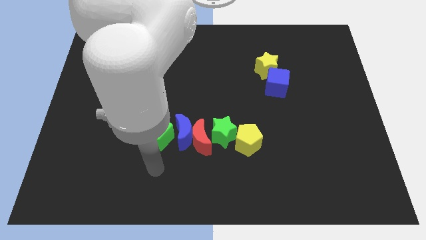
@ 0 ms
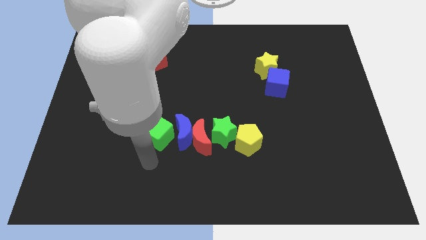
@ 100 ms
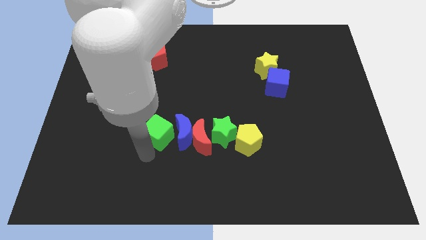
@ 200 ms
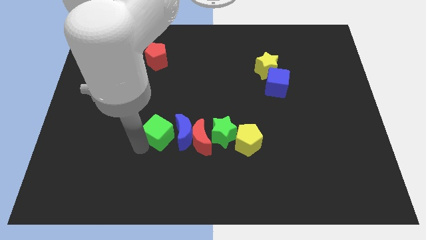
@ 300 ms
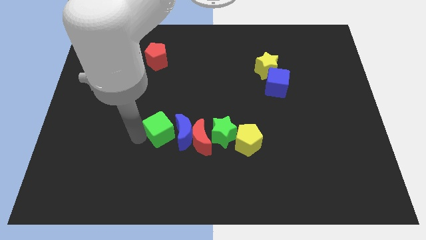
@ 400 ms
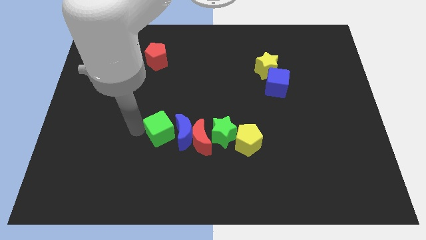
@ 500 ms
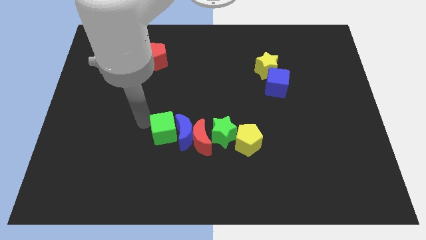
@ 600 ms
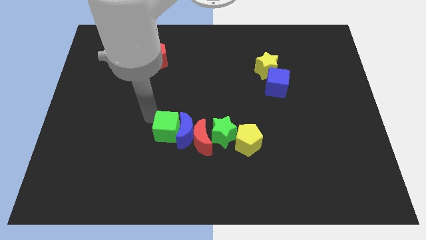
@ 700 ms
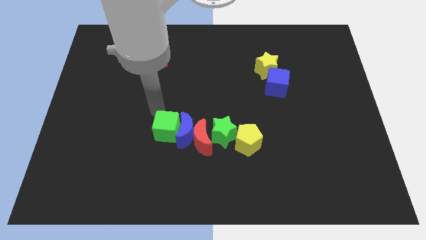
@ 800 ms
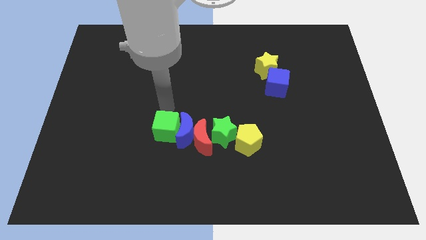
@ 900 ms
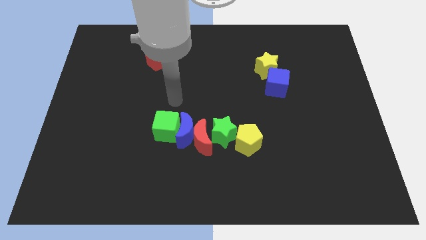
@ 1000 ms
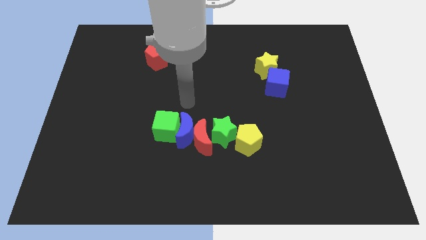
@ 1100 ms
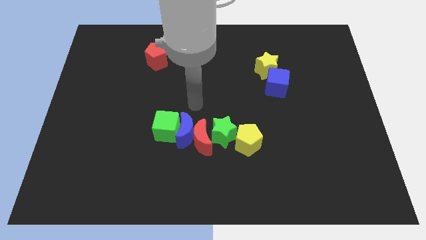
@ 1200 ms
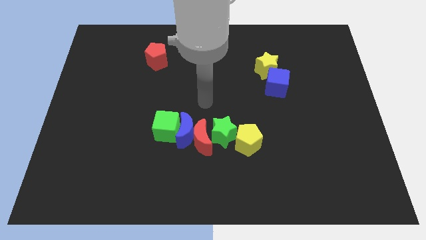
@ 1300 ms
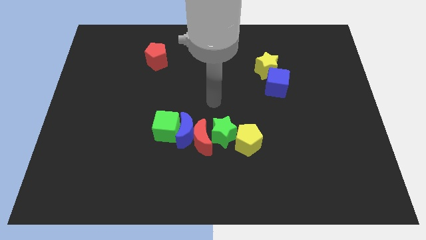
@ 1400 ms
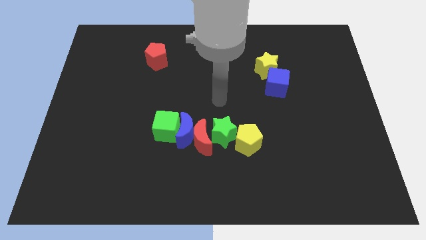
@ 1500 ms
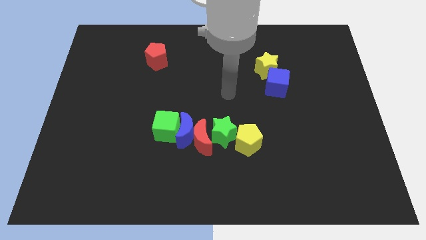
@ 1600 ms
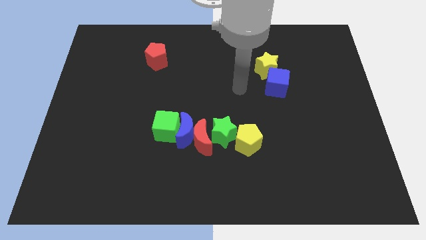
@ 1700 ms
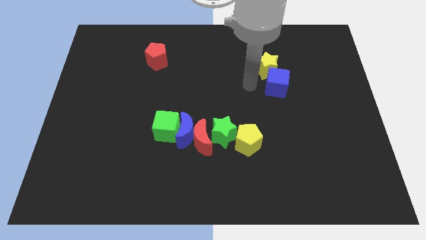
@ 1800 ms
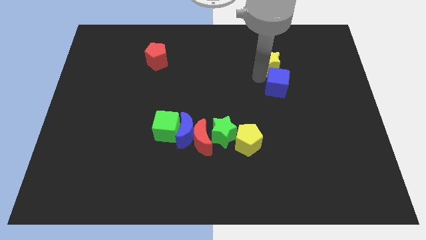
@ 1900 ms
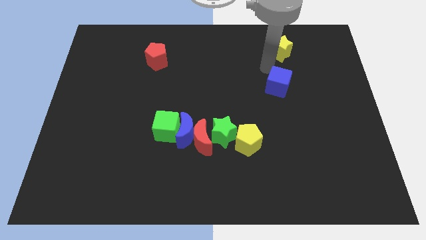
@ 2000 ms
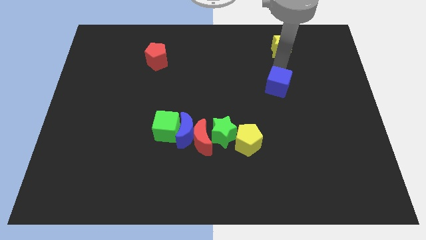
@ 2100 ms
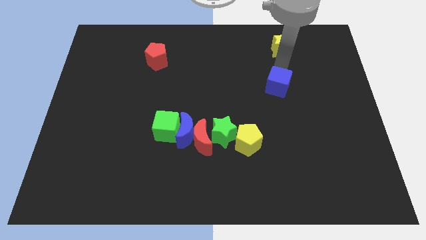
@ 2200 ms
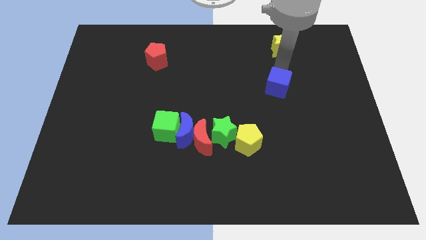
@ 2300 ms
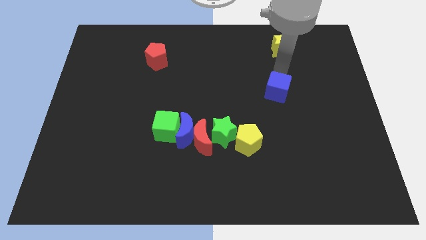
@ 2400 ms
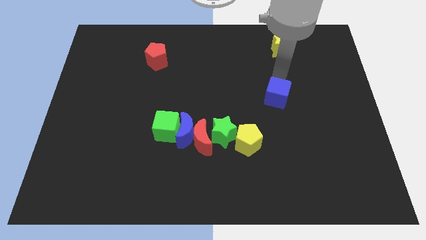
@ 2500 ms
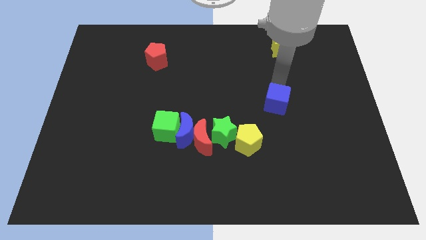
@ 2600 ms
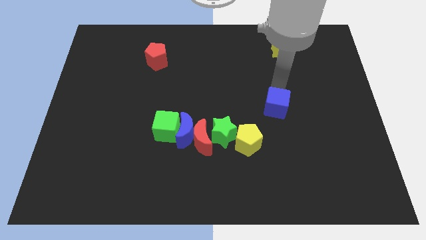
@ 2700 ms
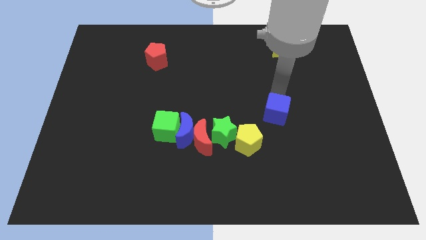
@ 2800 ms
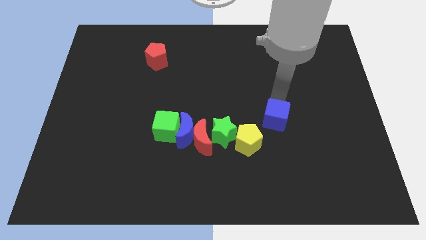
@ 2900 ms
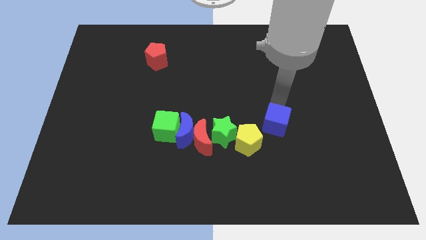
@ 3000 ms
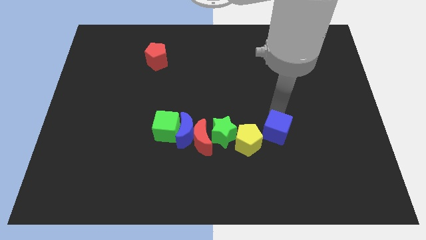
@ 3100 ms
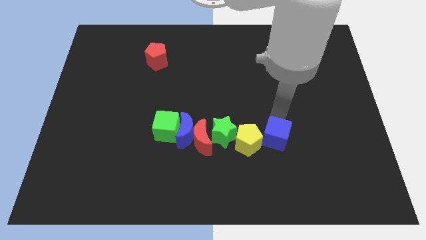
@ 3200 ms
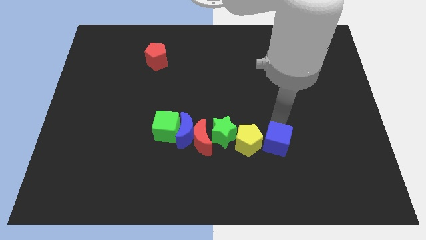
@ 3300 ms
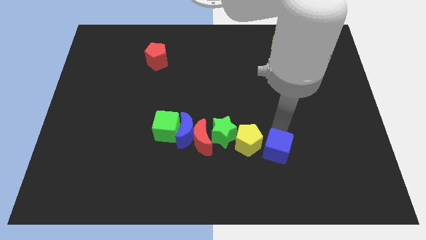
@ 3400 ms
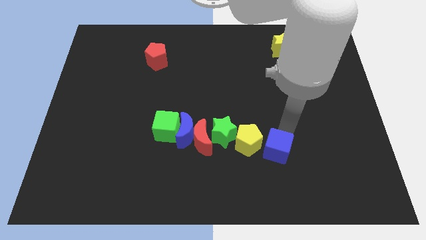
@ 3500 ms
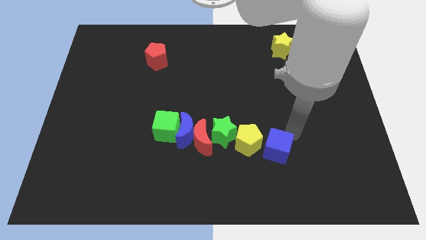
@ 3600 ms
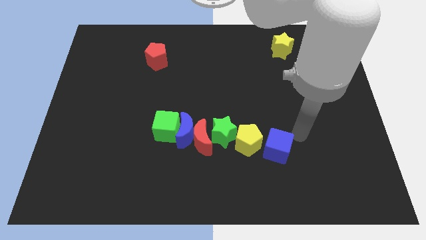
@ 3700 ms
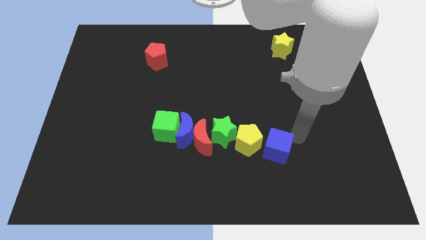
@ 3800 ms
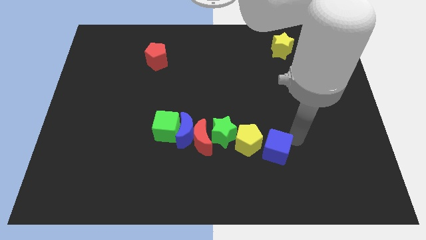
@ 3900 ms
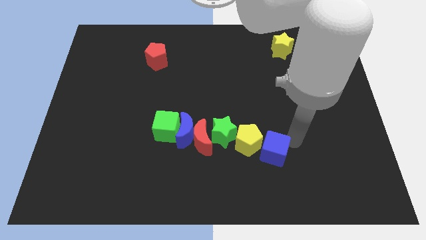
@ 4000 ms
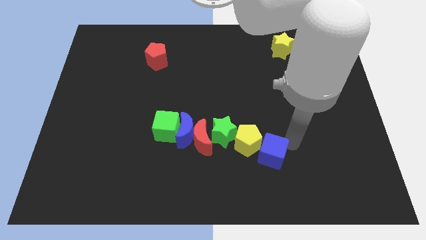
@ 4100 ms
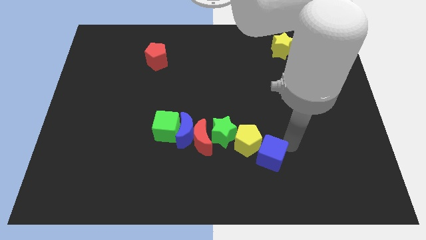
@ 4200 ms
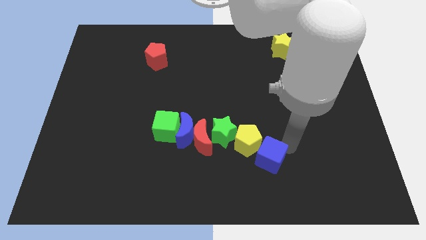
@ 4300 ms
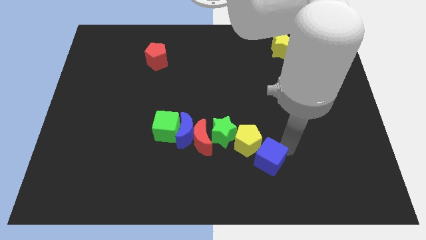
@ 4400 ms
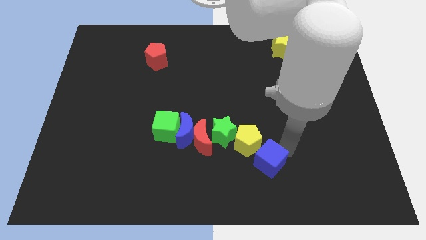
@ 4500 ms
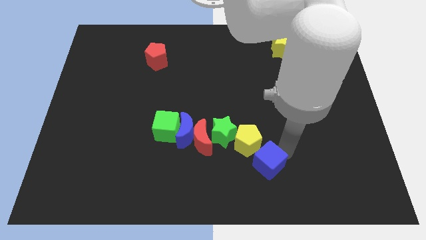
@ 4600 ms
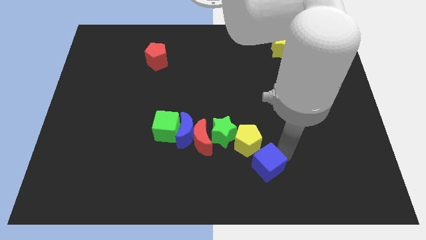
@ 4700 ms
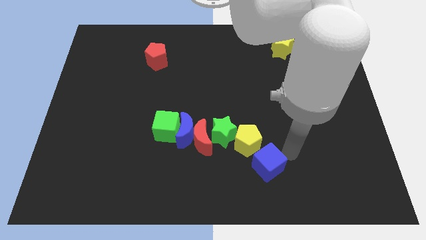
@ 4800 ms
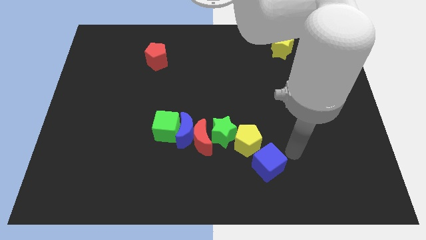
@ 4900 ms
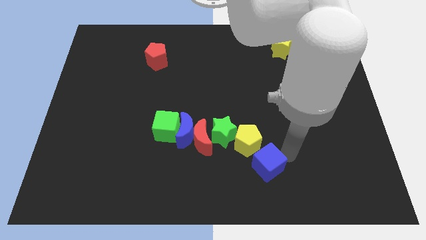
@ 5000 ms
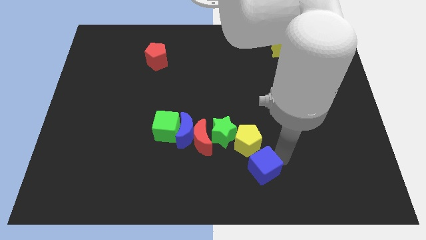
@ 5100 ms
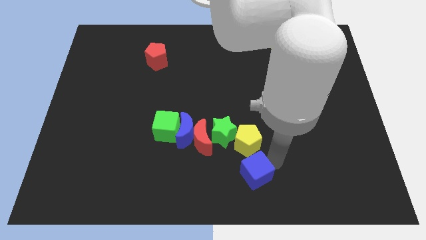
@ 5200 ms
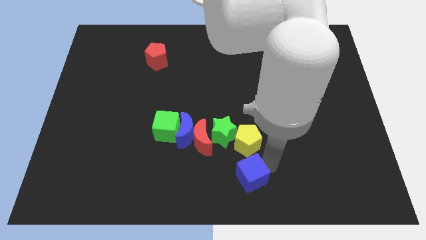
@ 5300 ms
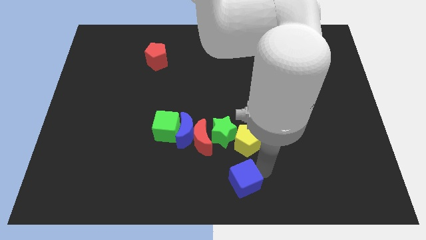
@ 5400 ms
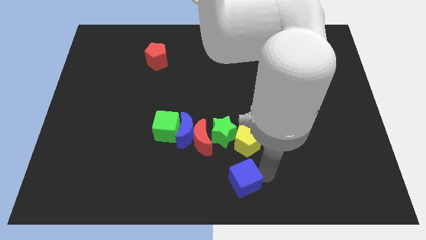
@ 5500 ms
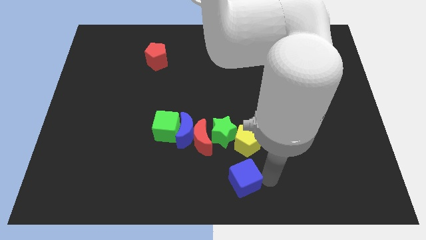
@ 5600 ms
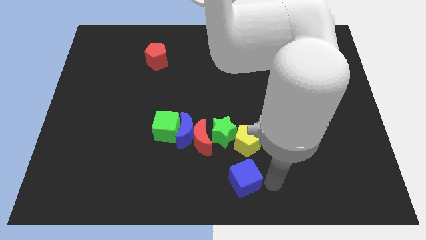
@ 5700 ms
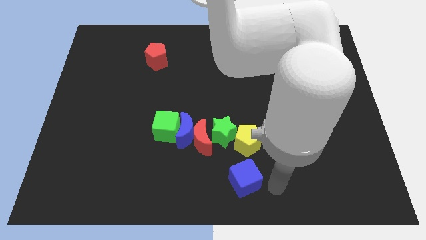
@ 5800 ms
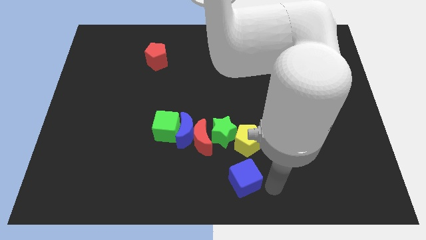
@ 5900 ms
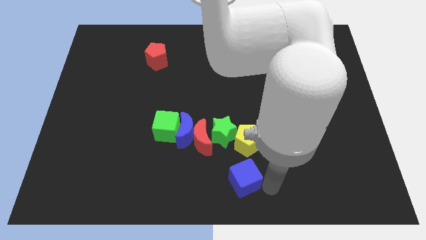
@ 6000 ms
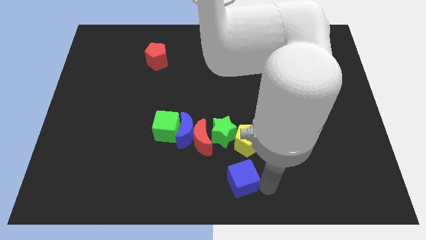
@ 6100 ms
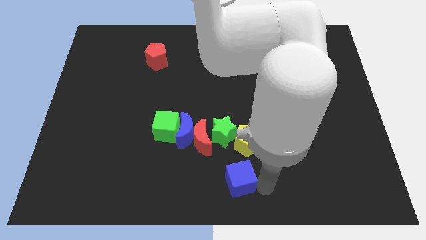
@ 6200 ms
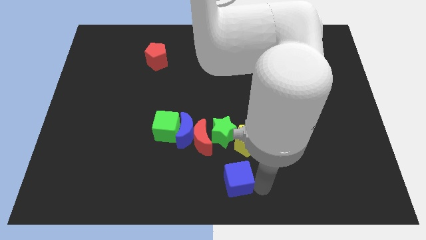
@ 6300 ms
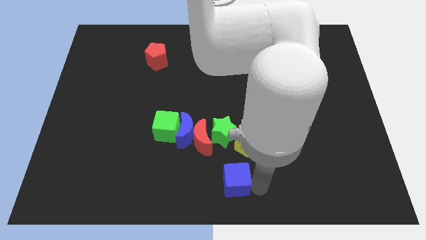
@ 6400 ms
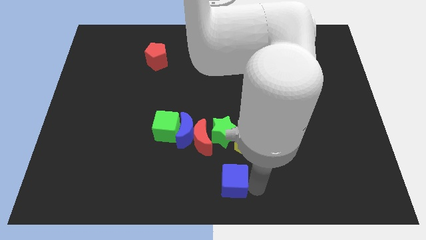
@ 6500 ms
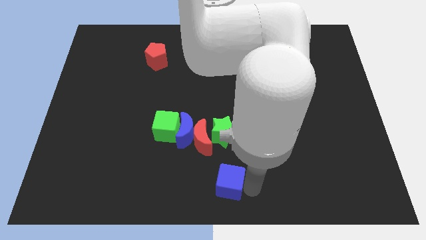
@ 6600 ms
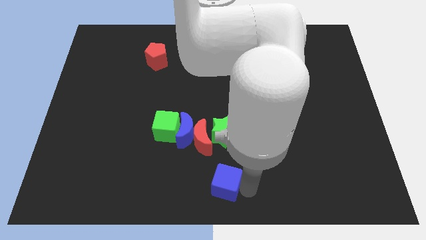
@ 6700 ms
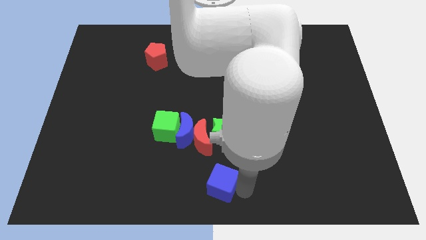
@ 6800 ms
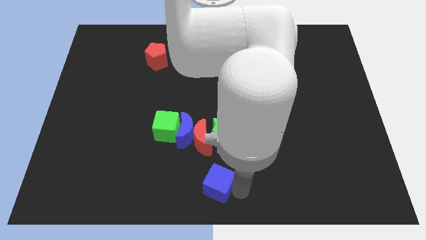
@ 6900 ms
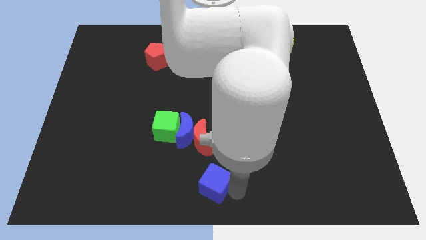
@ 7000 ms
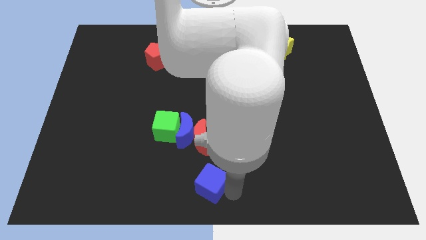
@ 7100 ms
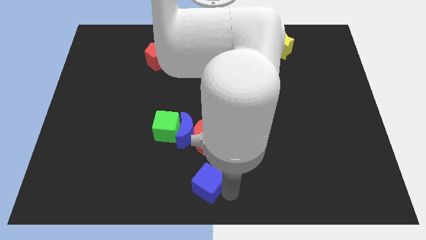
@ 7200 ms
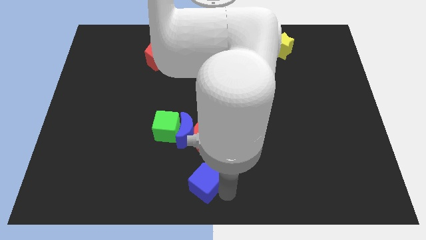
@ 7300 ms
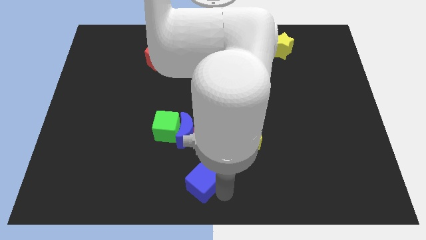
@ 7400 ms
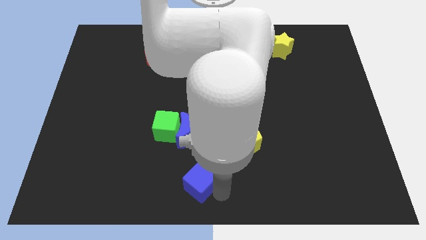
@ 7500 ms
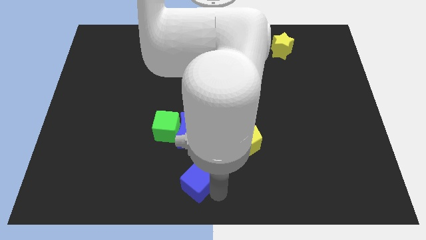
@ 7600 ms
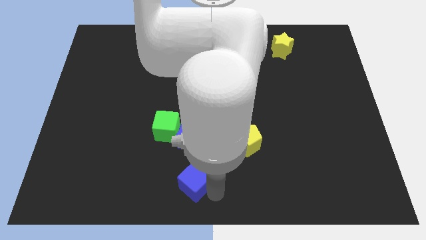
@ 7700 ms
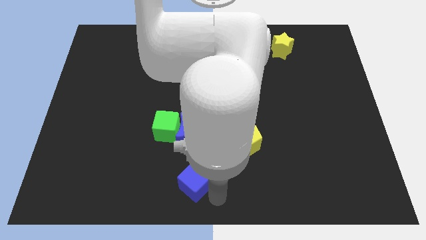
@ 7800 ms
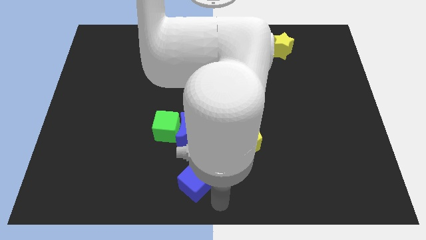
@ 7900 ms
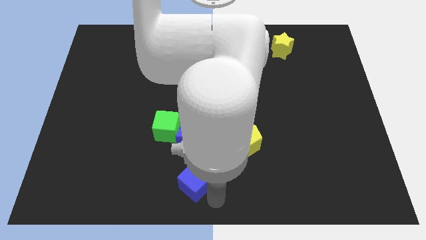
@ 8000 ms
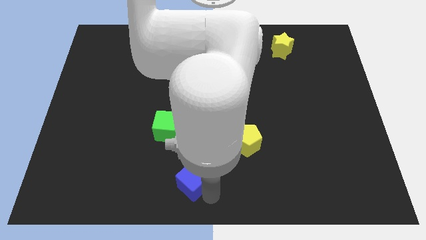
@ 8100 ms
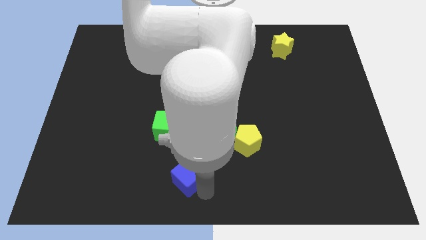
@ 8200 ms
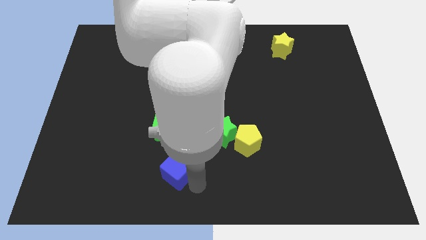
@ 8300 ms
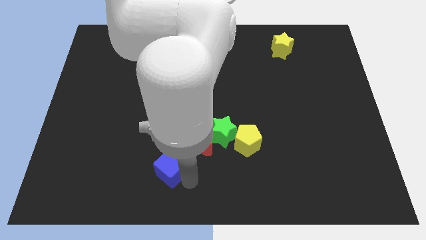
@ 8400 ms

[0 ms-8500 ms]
slide the blue cube to the bottom left side of the blue moon
